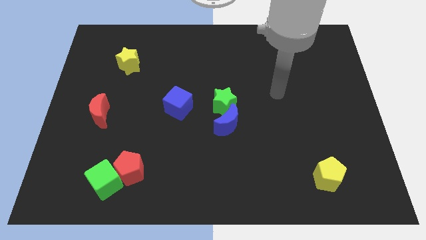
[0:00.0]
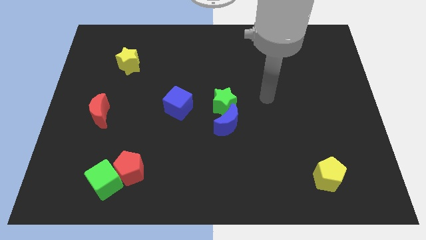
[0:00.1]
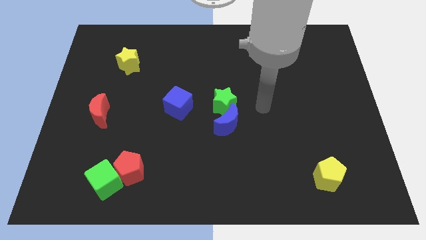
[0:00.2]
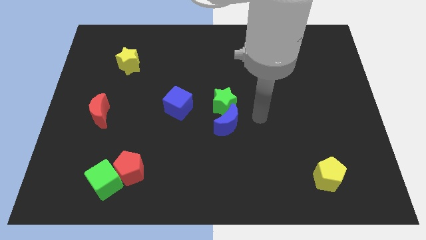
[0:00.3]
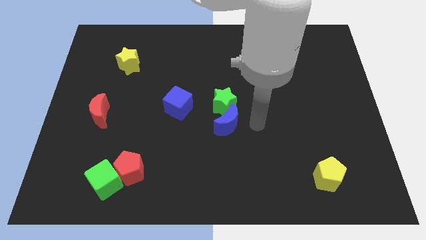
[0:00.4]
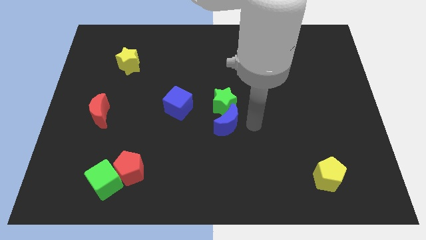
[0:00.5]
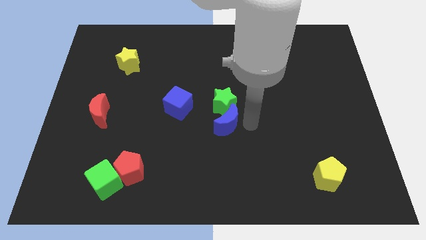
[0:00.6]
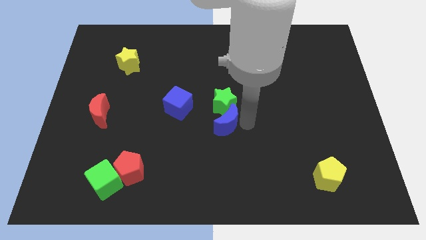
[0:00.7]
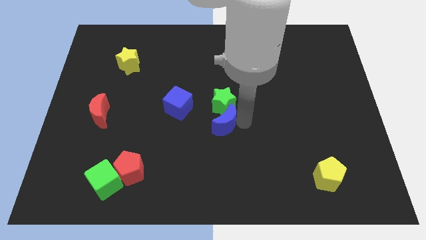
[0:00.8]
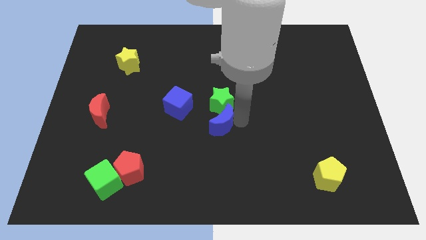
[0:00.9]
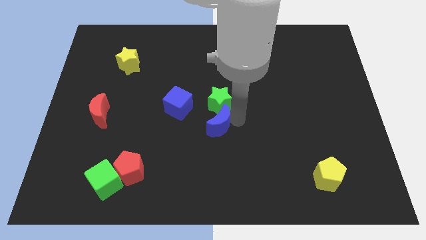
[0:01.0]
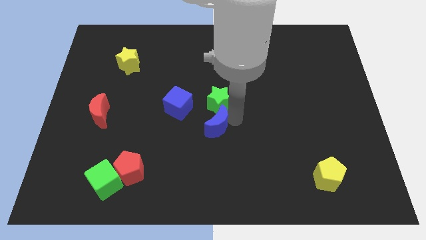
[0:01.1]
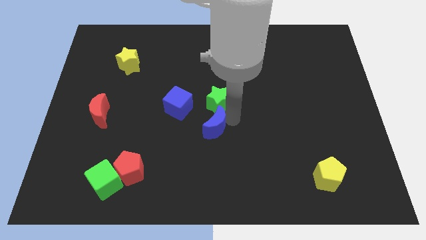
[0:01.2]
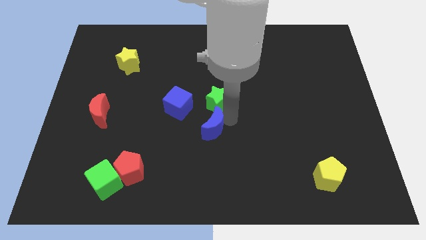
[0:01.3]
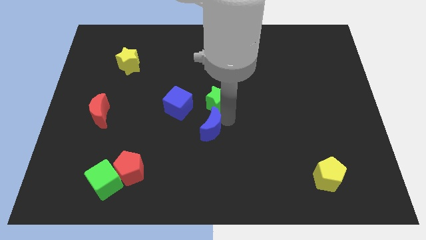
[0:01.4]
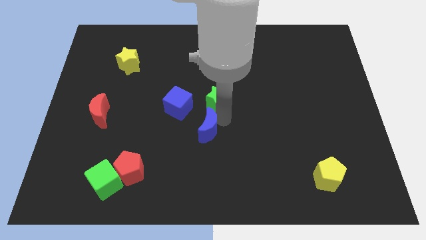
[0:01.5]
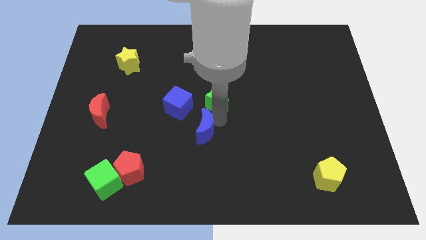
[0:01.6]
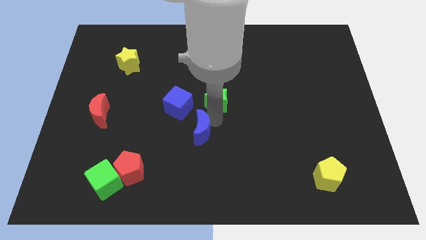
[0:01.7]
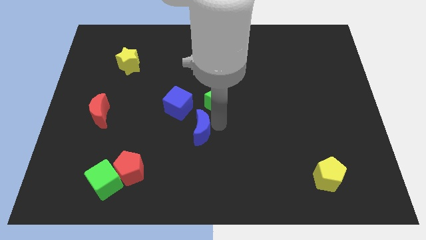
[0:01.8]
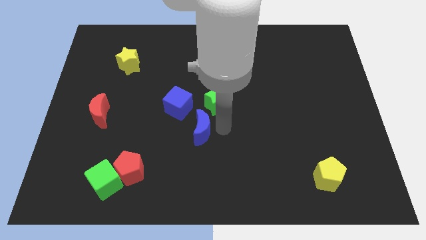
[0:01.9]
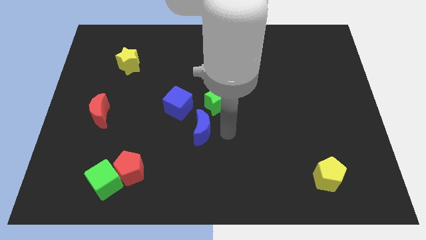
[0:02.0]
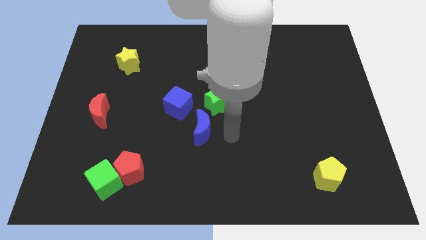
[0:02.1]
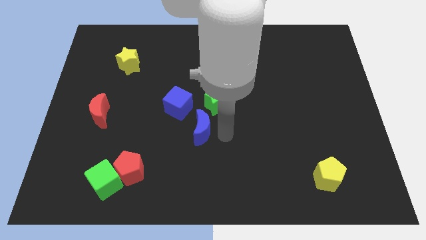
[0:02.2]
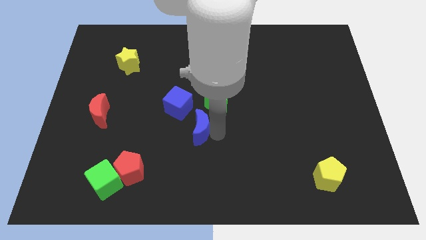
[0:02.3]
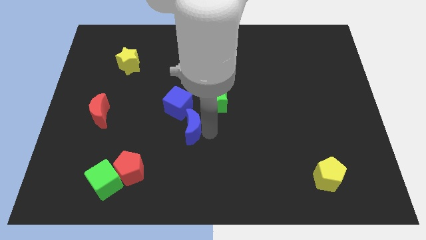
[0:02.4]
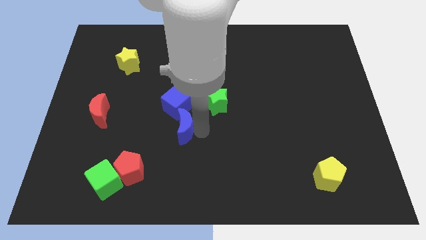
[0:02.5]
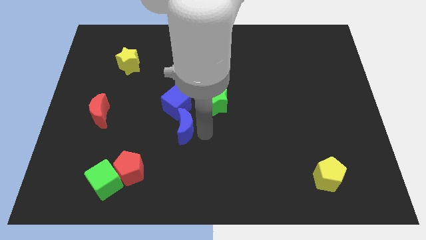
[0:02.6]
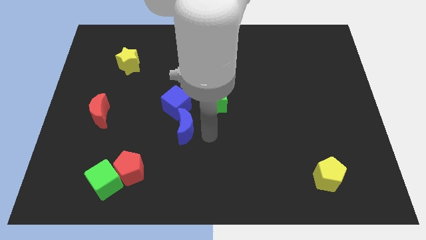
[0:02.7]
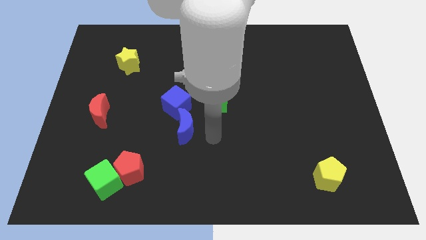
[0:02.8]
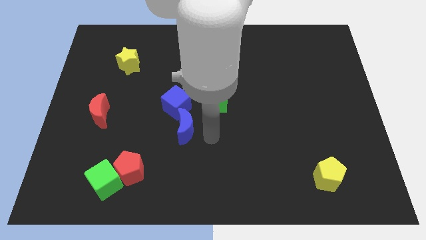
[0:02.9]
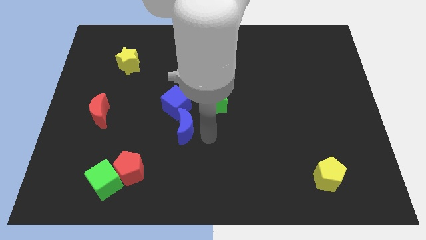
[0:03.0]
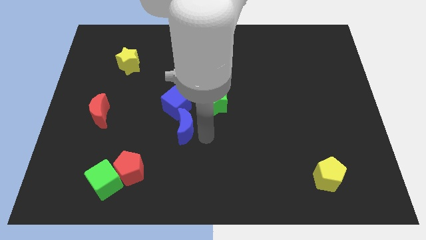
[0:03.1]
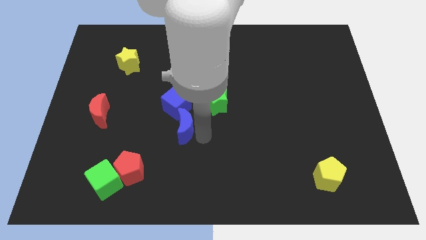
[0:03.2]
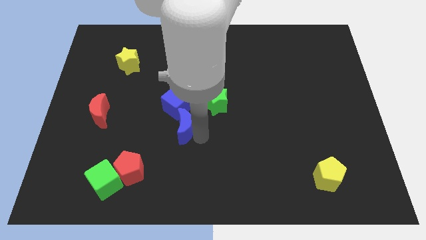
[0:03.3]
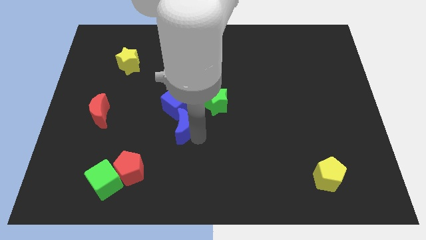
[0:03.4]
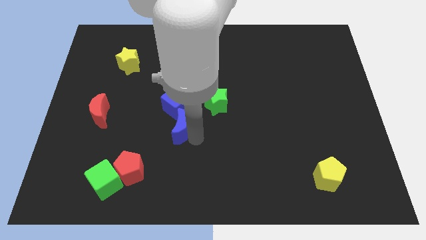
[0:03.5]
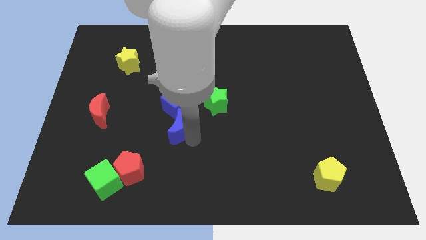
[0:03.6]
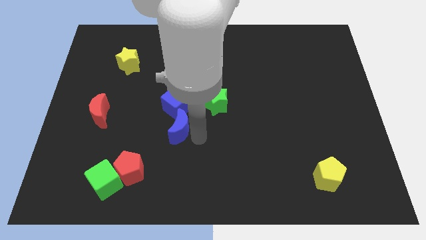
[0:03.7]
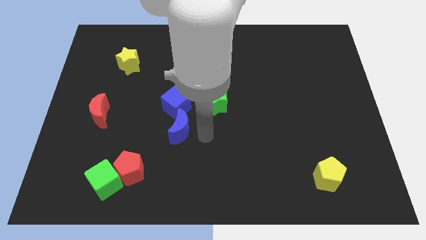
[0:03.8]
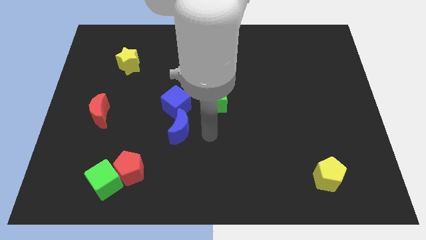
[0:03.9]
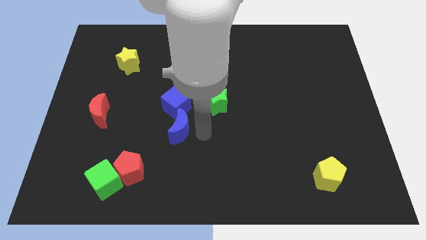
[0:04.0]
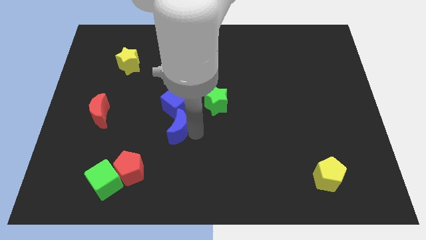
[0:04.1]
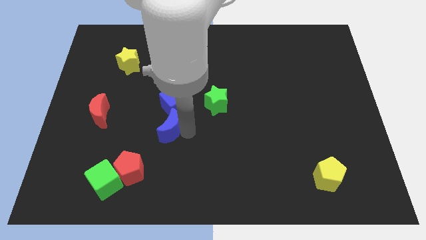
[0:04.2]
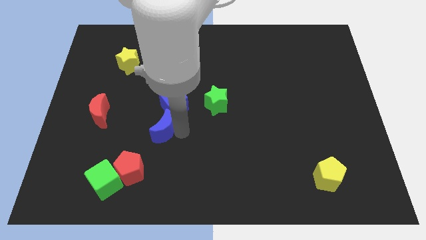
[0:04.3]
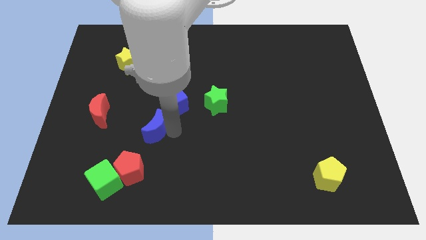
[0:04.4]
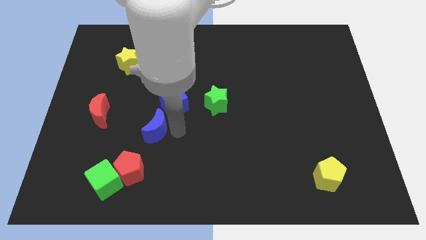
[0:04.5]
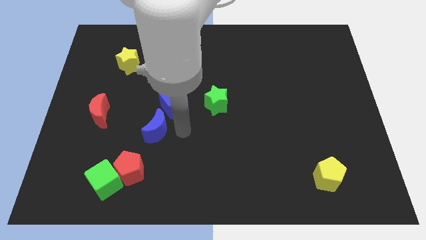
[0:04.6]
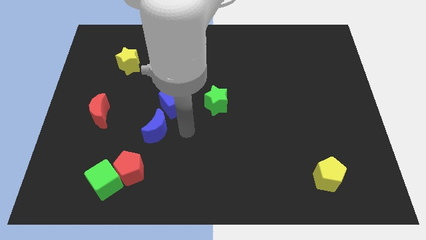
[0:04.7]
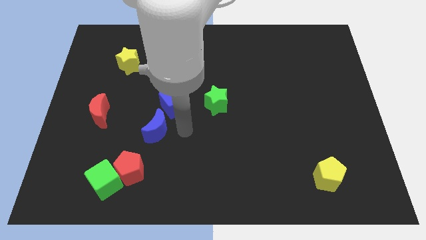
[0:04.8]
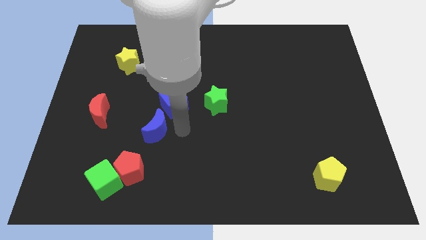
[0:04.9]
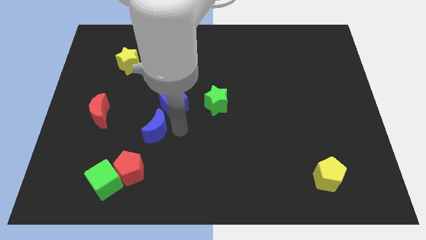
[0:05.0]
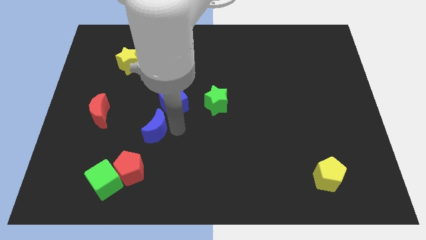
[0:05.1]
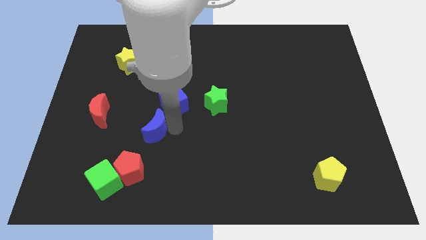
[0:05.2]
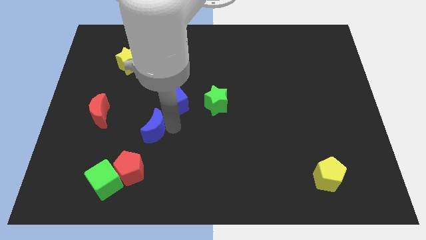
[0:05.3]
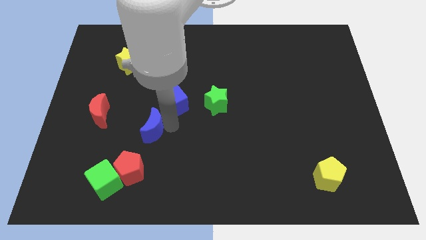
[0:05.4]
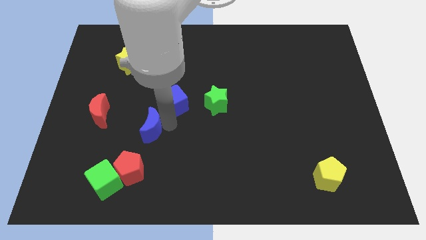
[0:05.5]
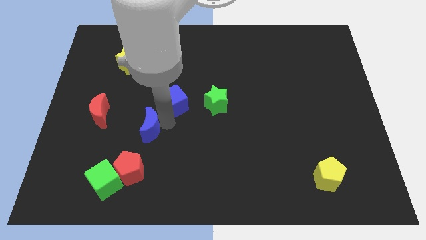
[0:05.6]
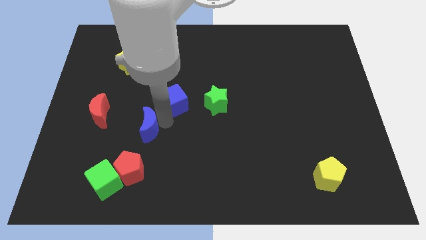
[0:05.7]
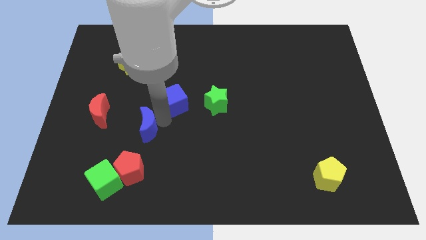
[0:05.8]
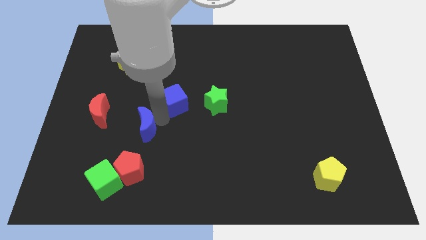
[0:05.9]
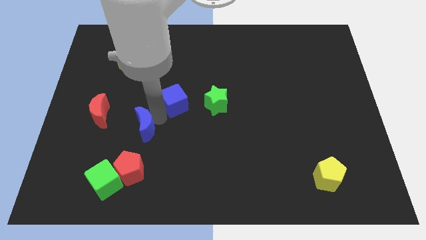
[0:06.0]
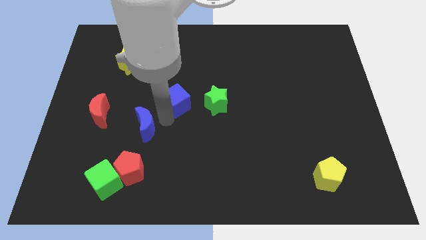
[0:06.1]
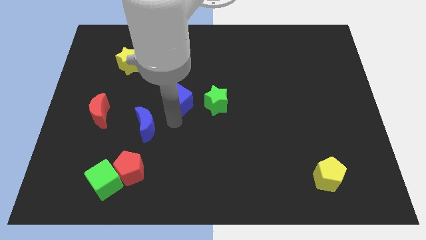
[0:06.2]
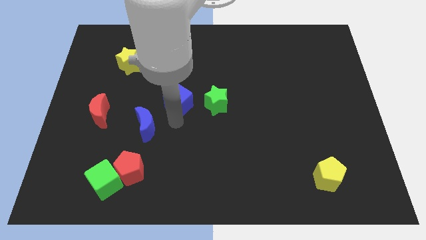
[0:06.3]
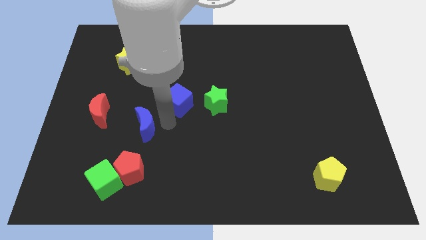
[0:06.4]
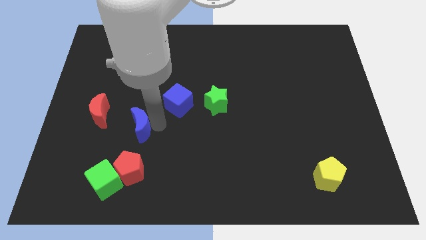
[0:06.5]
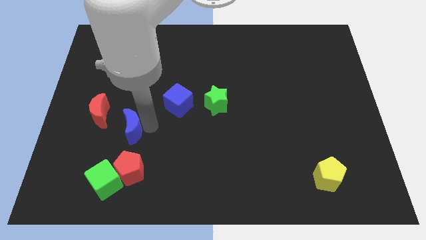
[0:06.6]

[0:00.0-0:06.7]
slide the blue moon to the left

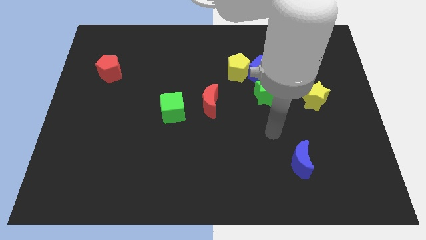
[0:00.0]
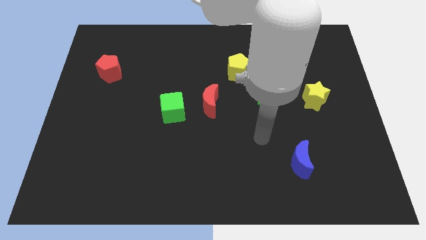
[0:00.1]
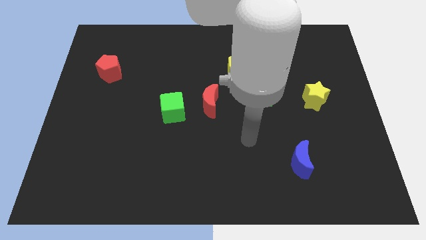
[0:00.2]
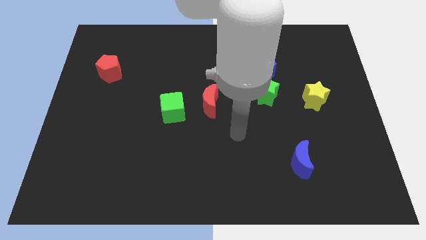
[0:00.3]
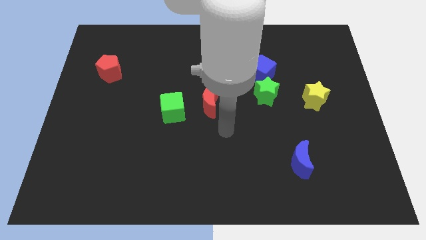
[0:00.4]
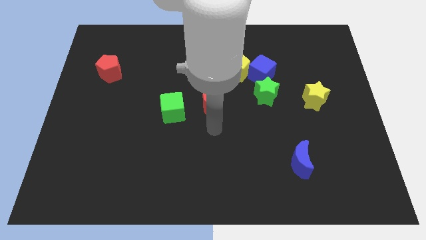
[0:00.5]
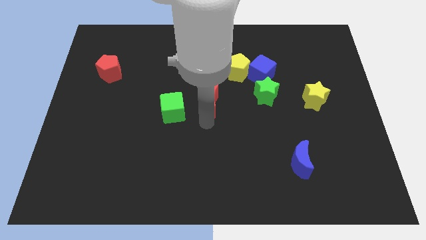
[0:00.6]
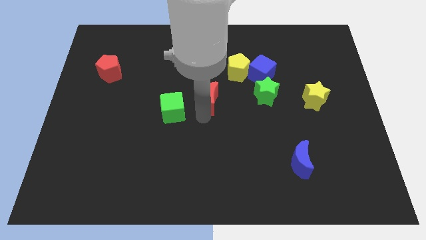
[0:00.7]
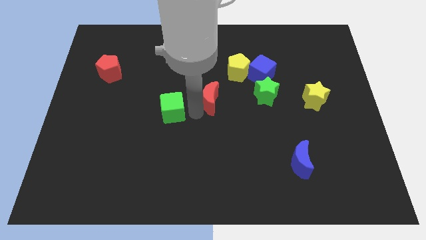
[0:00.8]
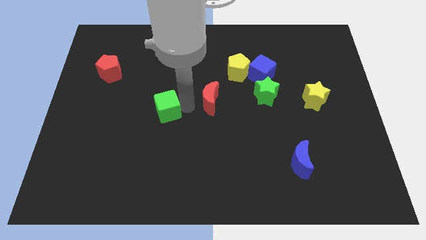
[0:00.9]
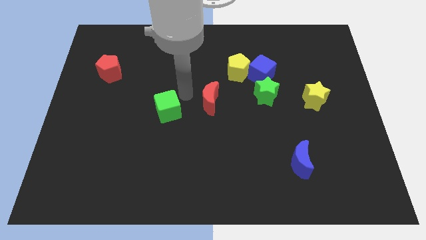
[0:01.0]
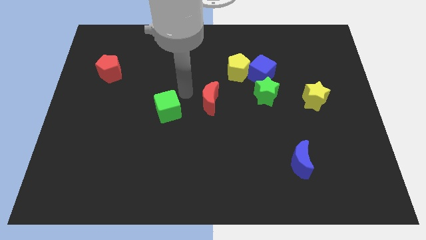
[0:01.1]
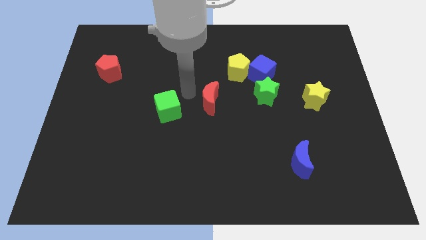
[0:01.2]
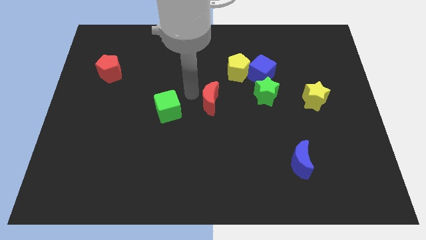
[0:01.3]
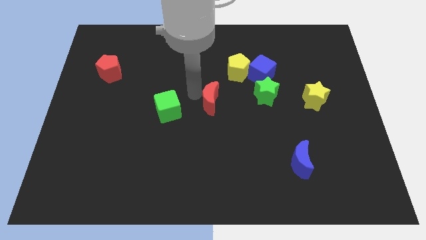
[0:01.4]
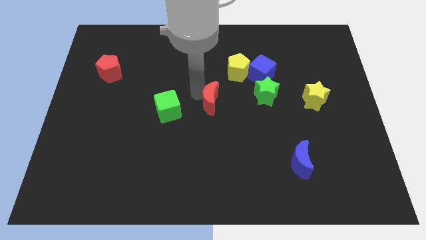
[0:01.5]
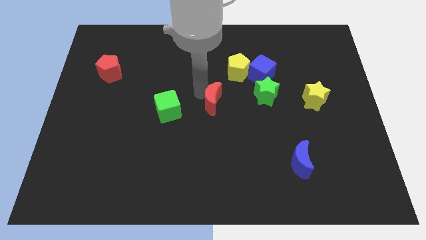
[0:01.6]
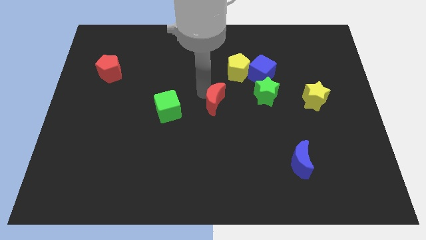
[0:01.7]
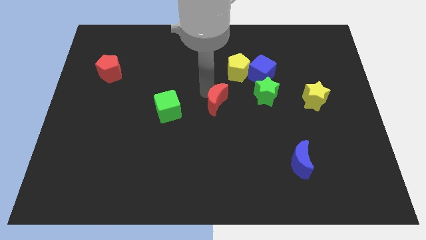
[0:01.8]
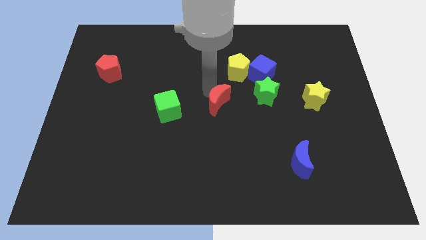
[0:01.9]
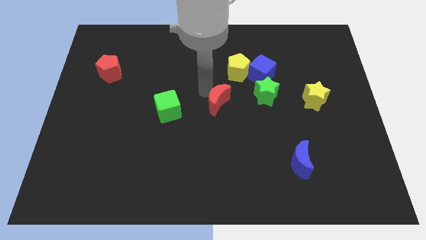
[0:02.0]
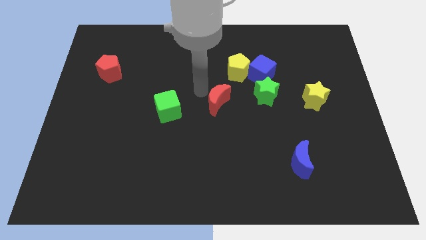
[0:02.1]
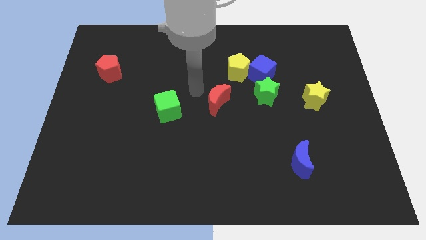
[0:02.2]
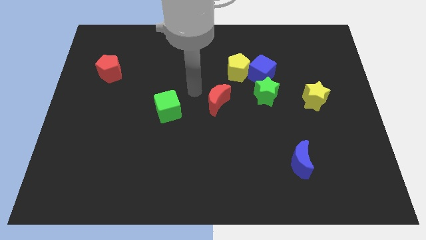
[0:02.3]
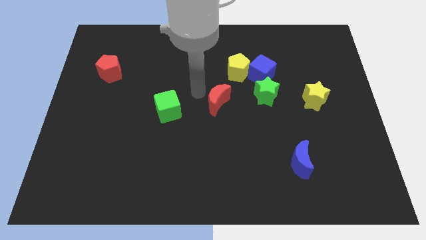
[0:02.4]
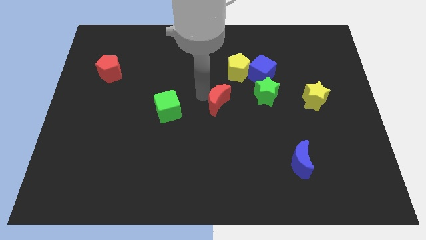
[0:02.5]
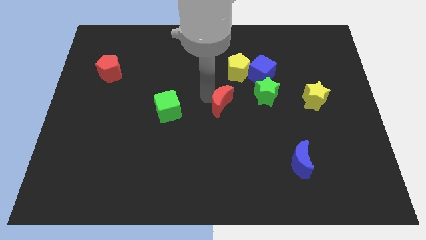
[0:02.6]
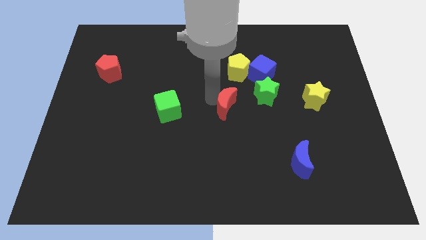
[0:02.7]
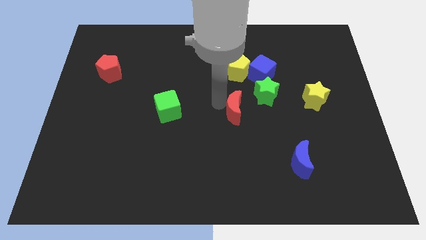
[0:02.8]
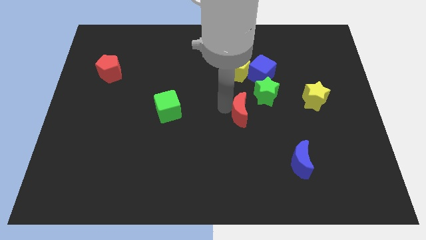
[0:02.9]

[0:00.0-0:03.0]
slightly push the red moon to the right
